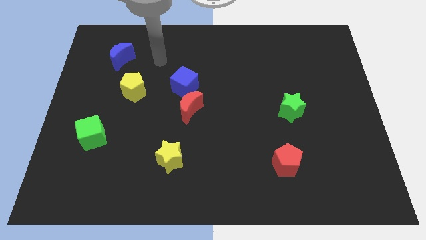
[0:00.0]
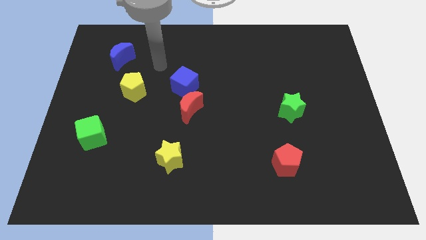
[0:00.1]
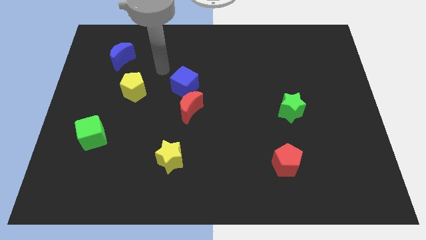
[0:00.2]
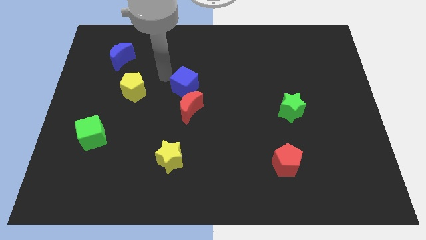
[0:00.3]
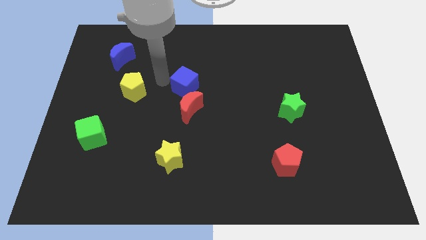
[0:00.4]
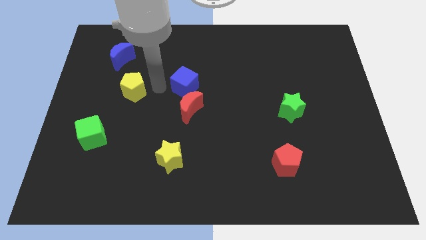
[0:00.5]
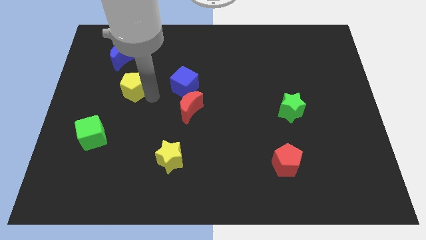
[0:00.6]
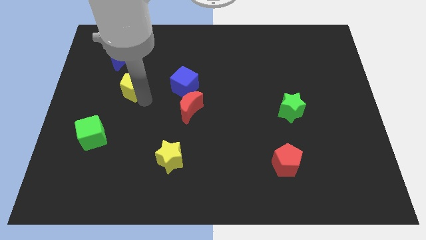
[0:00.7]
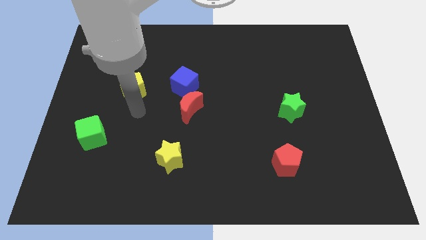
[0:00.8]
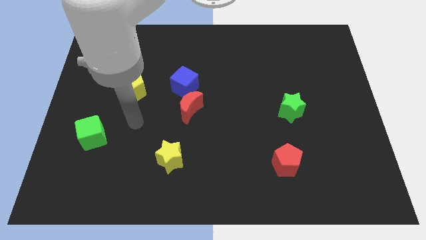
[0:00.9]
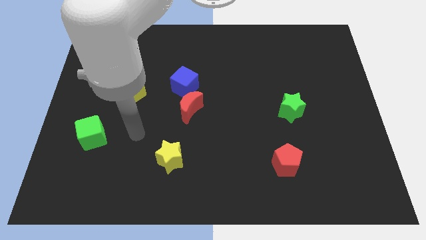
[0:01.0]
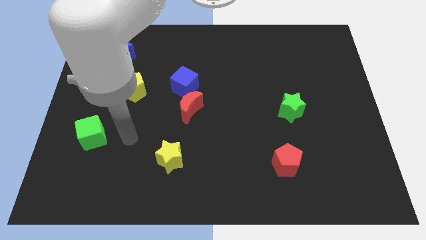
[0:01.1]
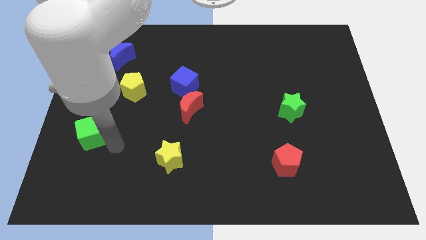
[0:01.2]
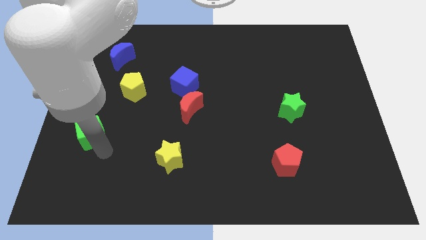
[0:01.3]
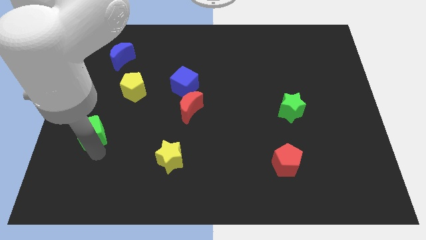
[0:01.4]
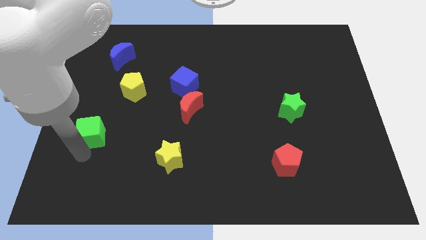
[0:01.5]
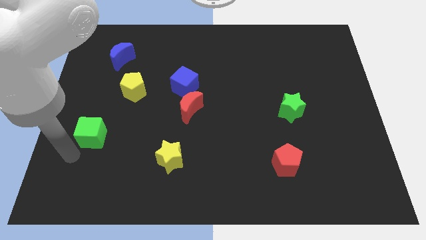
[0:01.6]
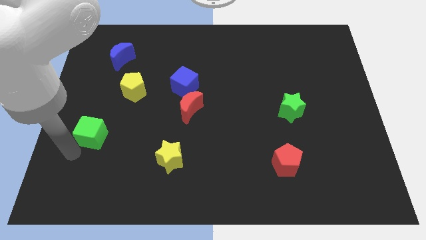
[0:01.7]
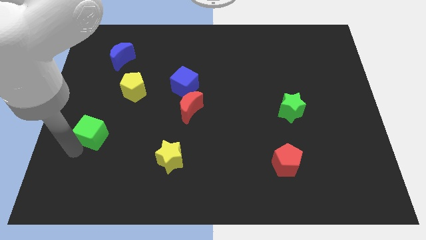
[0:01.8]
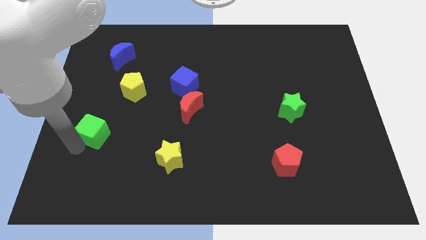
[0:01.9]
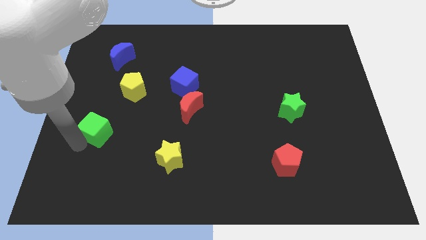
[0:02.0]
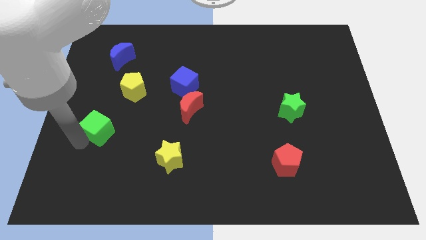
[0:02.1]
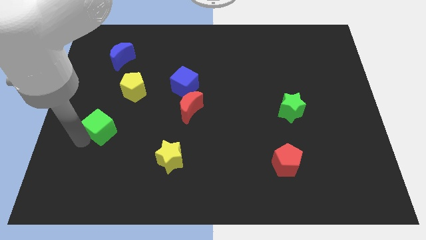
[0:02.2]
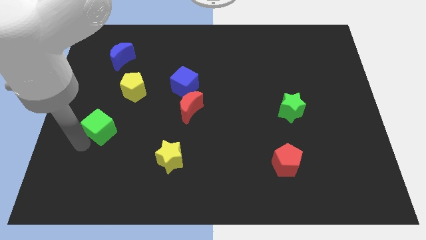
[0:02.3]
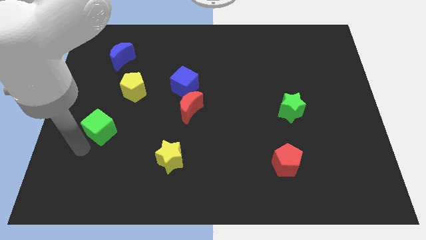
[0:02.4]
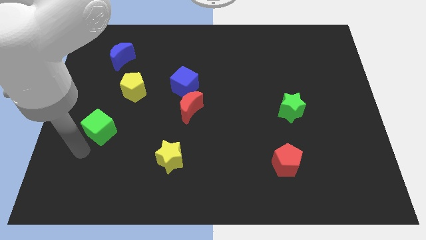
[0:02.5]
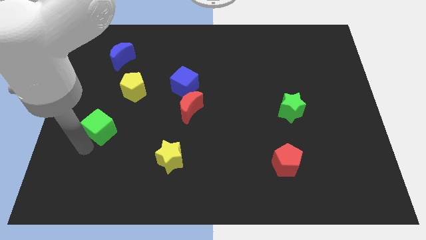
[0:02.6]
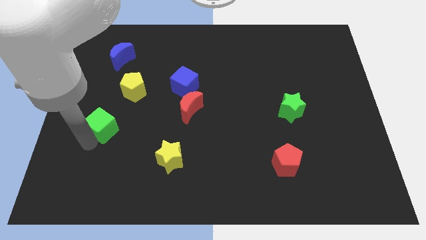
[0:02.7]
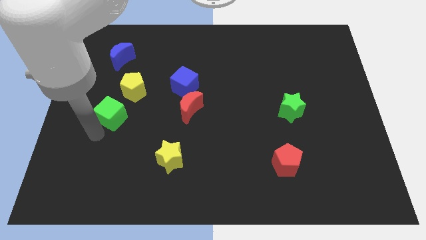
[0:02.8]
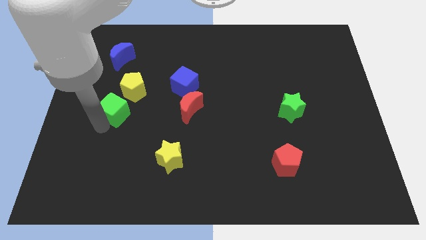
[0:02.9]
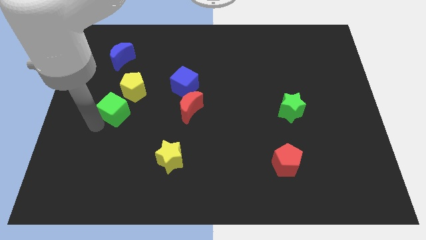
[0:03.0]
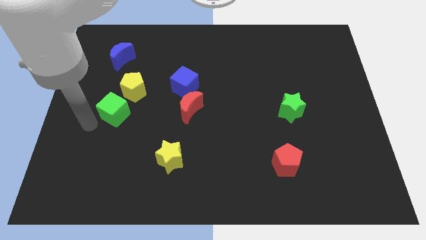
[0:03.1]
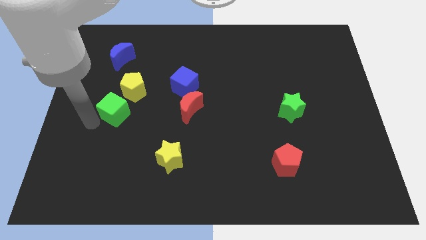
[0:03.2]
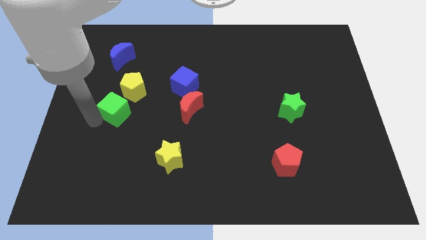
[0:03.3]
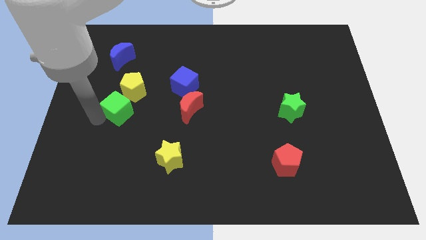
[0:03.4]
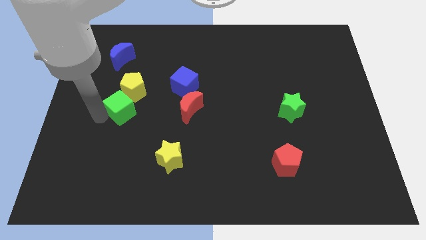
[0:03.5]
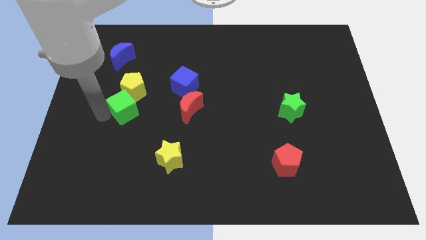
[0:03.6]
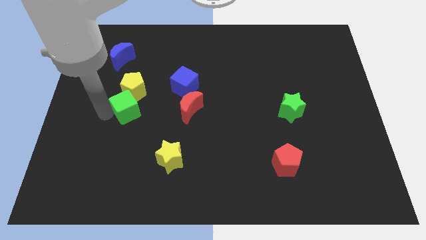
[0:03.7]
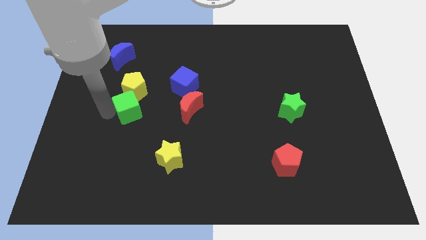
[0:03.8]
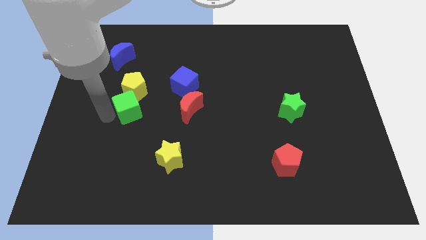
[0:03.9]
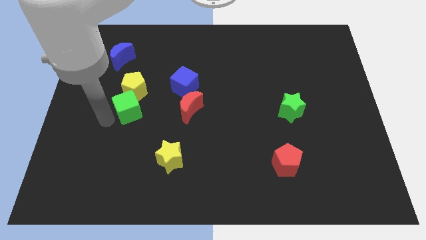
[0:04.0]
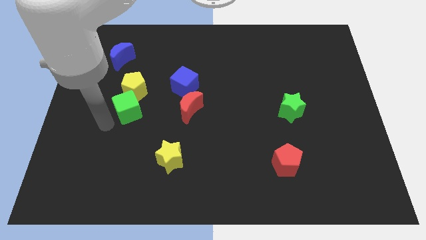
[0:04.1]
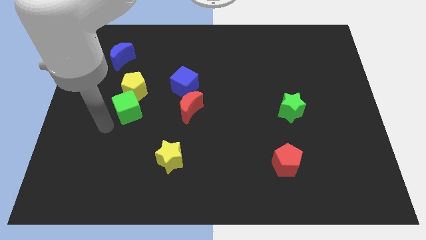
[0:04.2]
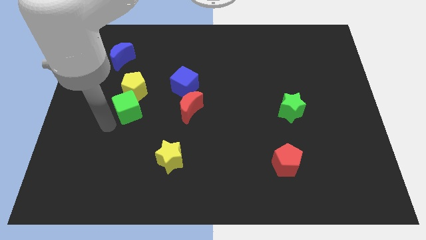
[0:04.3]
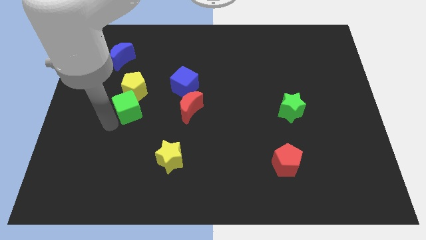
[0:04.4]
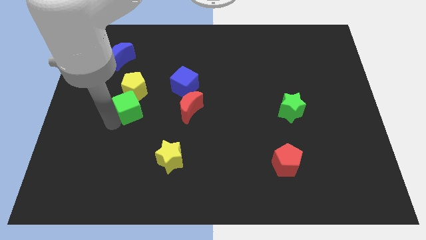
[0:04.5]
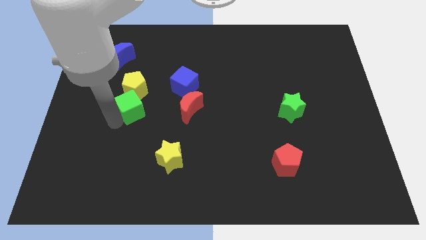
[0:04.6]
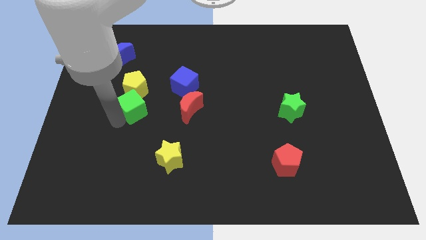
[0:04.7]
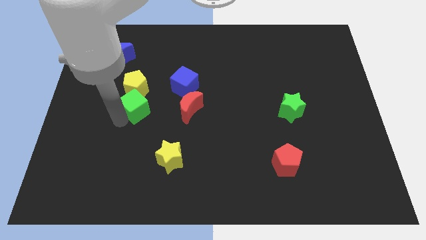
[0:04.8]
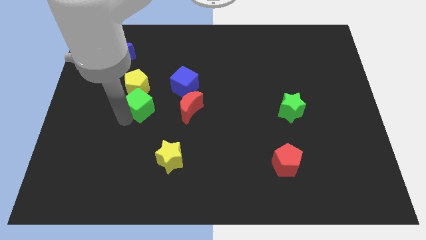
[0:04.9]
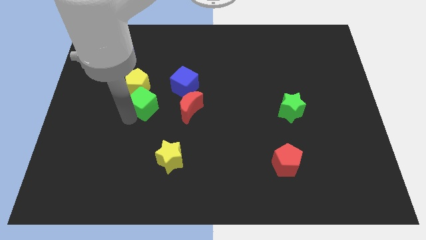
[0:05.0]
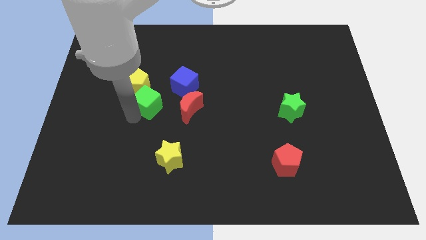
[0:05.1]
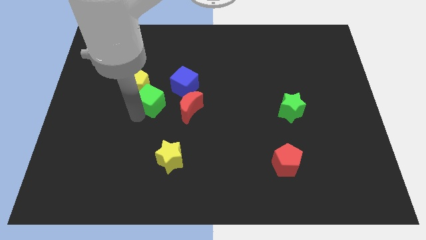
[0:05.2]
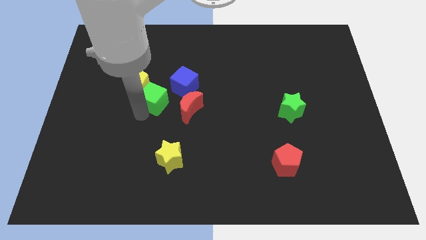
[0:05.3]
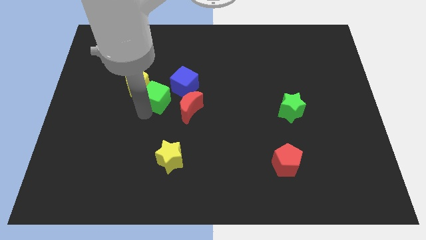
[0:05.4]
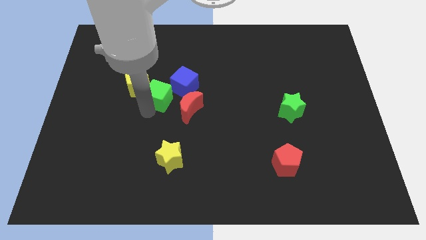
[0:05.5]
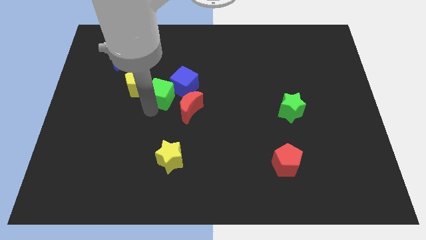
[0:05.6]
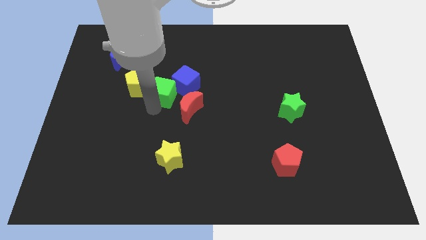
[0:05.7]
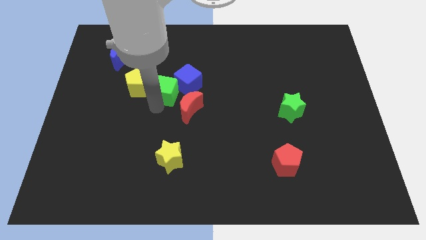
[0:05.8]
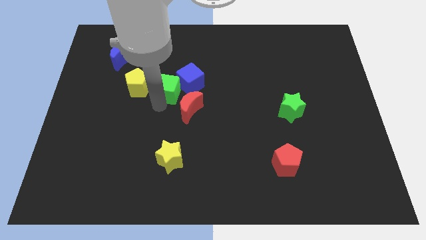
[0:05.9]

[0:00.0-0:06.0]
push the green cube up and to the right diagonally

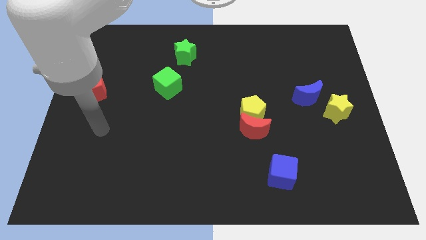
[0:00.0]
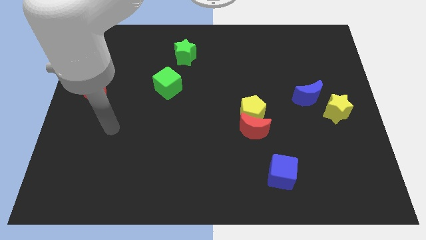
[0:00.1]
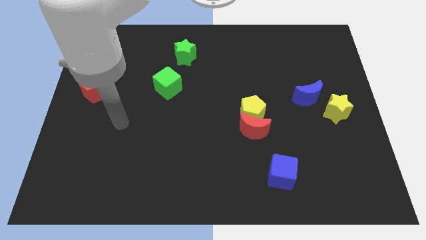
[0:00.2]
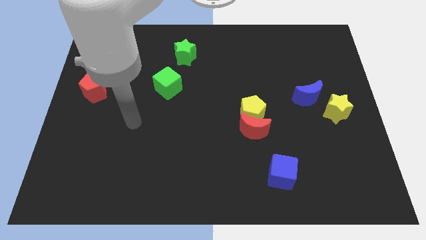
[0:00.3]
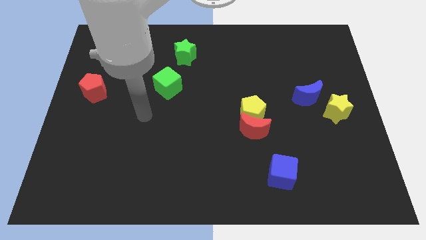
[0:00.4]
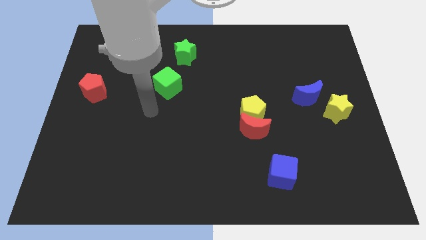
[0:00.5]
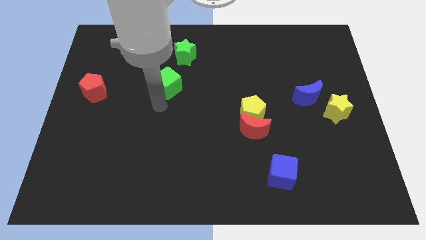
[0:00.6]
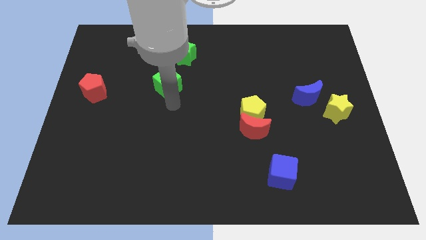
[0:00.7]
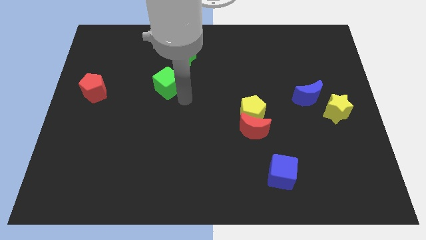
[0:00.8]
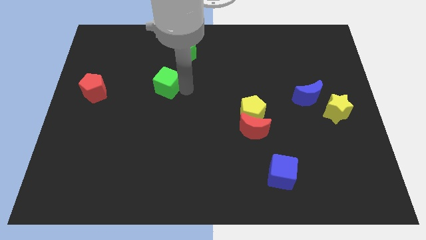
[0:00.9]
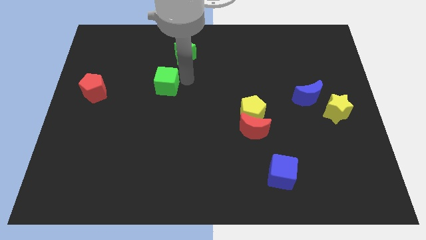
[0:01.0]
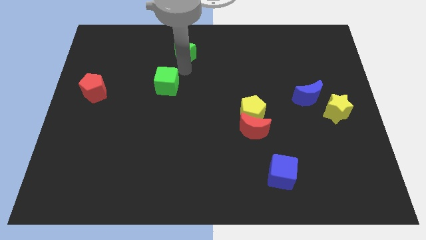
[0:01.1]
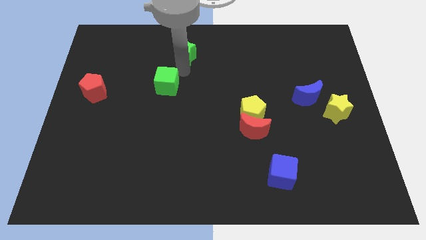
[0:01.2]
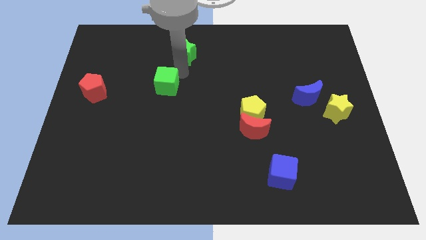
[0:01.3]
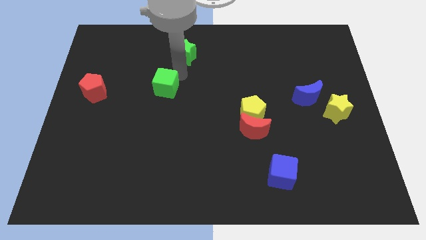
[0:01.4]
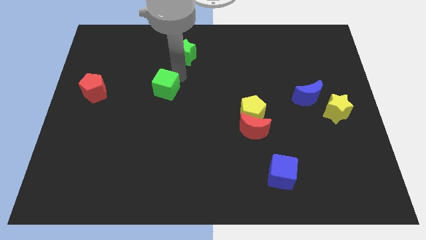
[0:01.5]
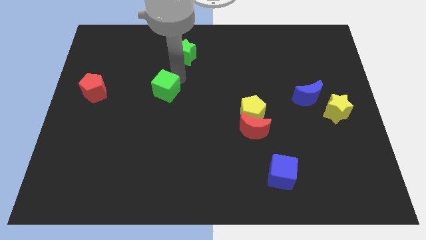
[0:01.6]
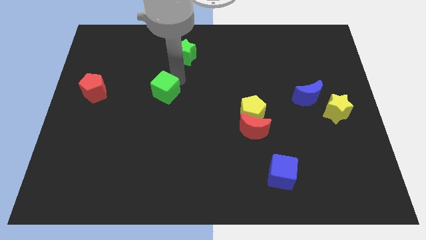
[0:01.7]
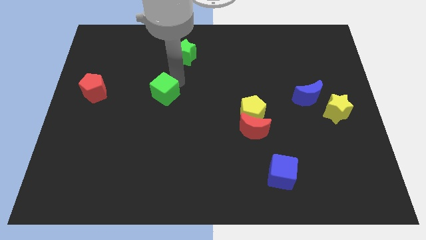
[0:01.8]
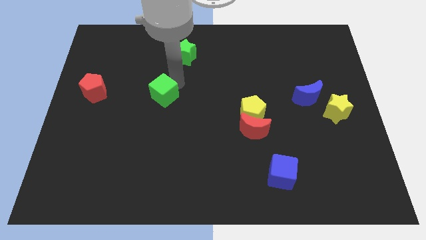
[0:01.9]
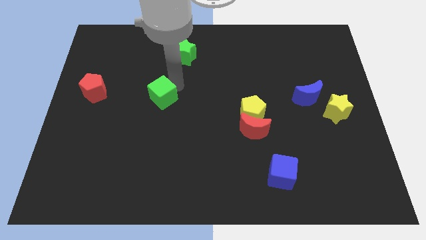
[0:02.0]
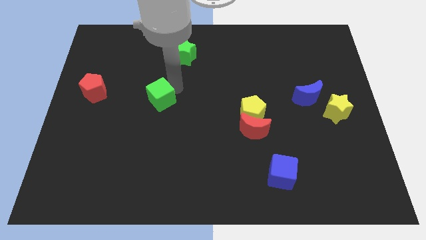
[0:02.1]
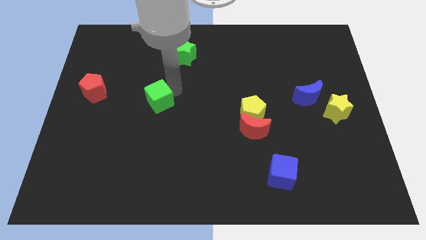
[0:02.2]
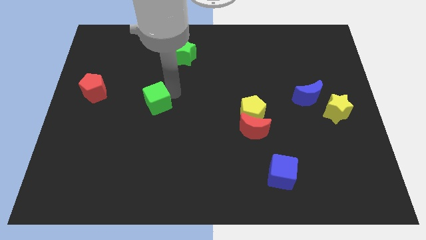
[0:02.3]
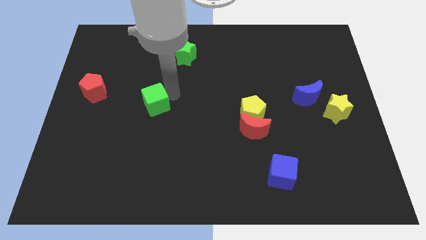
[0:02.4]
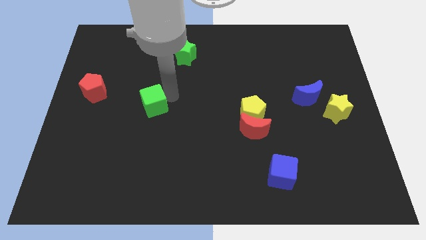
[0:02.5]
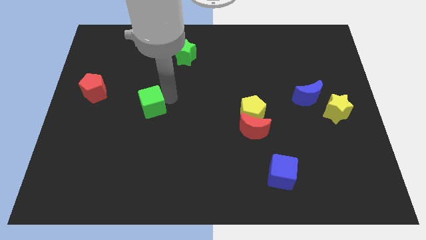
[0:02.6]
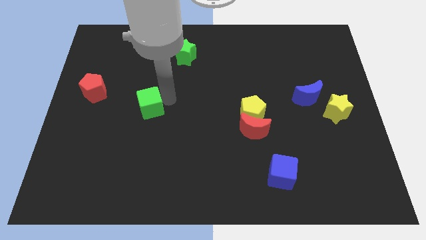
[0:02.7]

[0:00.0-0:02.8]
move the green cube slightly downwards and left
